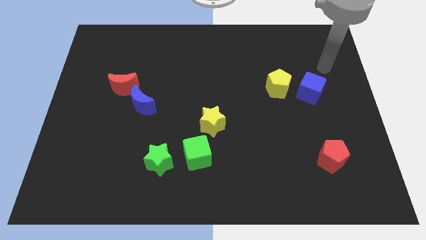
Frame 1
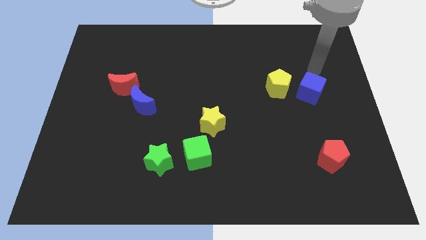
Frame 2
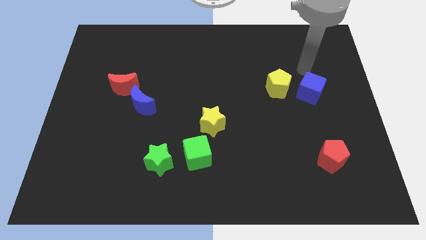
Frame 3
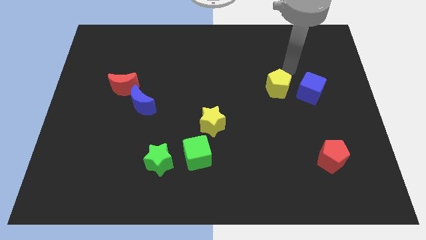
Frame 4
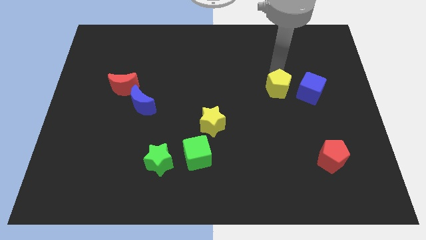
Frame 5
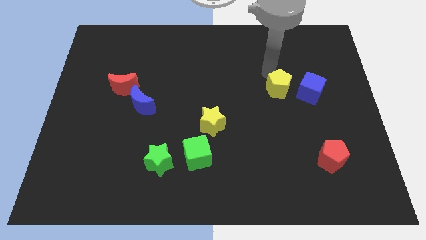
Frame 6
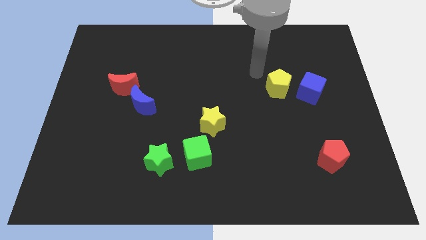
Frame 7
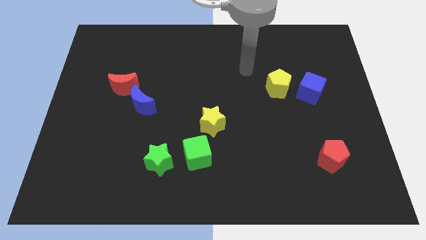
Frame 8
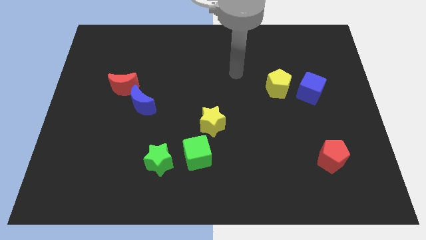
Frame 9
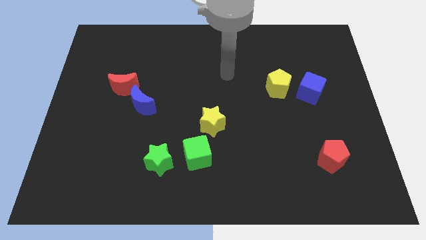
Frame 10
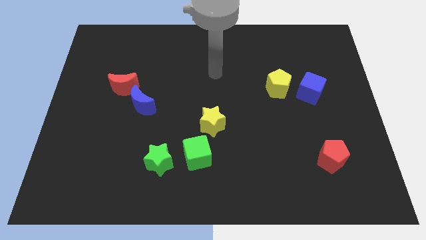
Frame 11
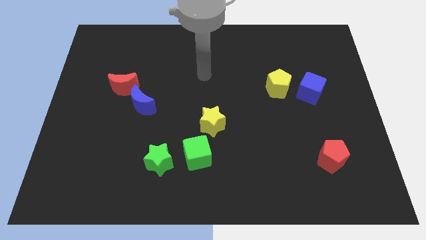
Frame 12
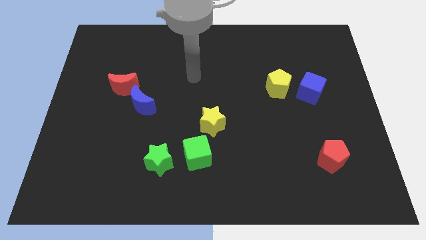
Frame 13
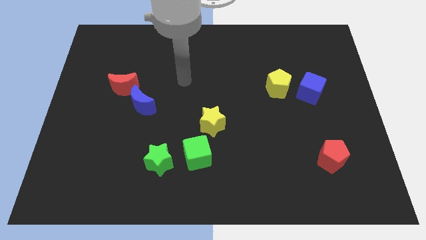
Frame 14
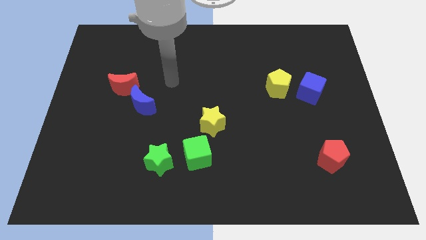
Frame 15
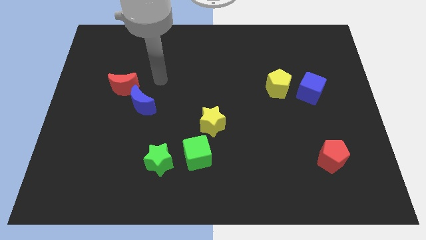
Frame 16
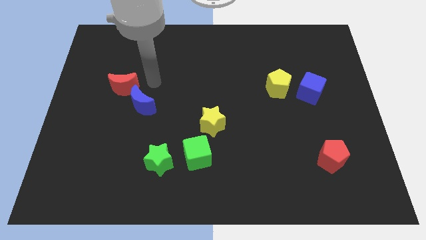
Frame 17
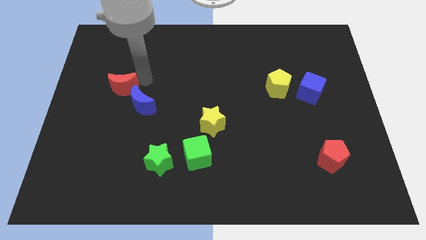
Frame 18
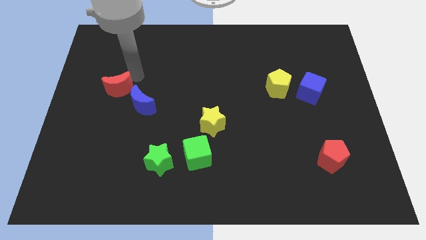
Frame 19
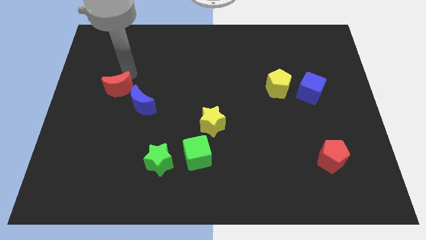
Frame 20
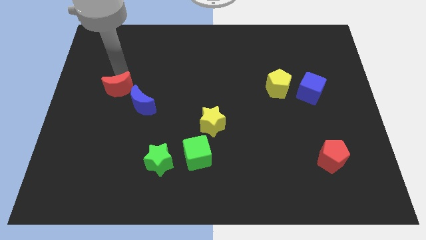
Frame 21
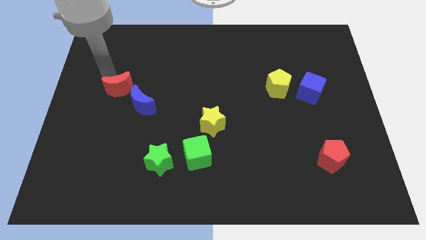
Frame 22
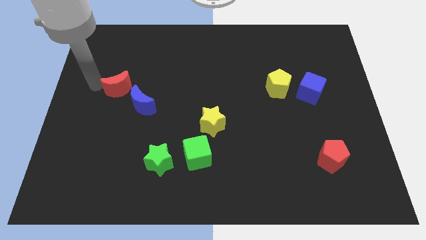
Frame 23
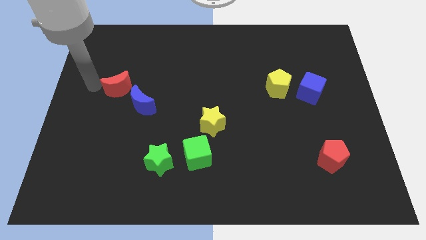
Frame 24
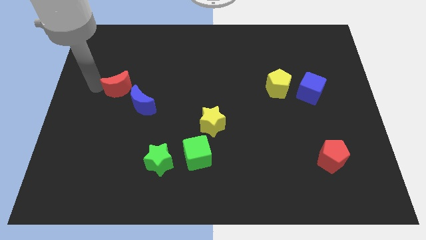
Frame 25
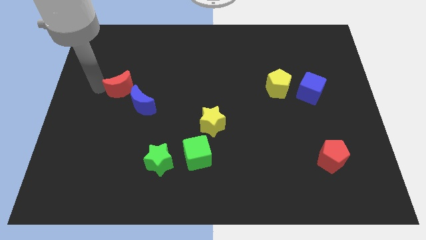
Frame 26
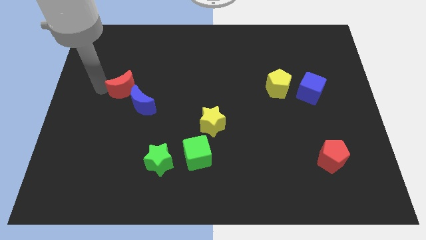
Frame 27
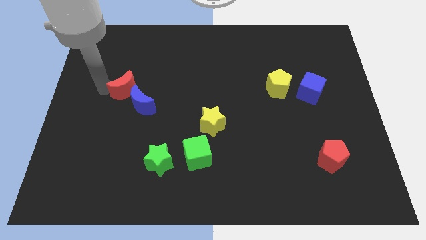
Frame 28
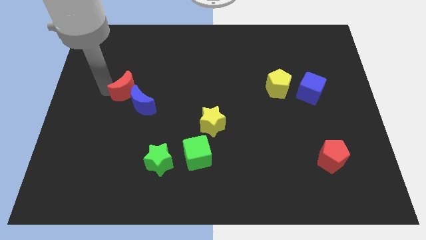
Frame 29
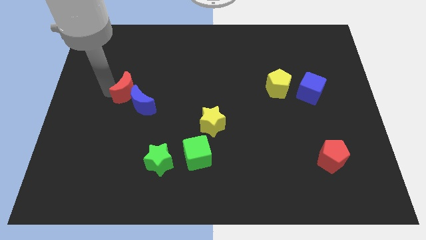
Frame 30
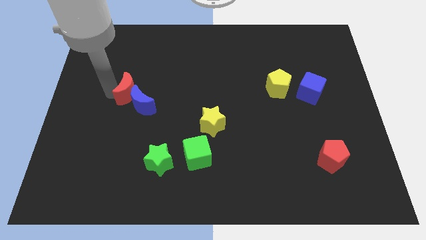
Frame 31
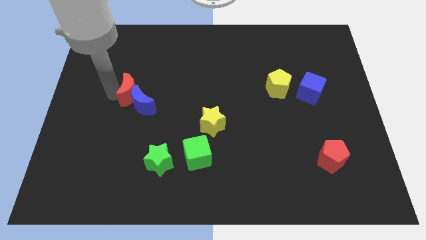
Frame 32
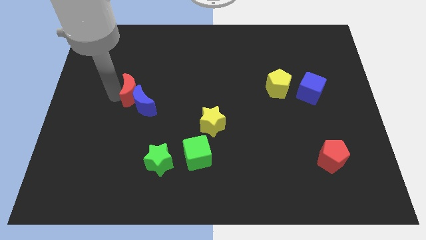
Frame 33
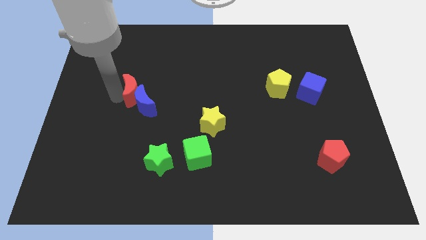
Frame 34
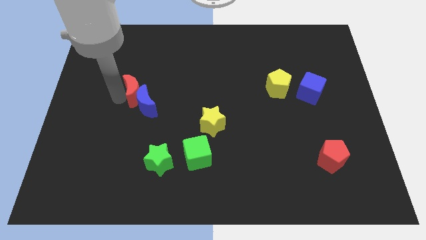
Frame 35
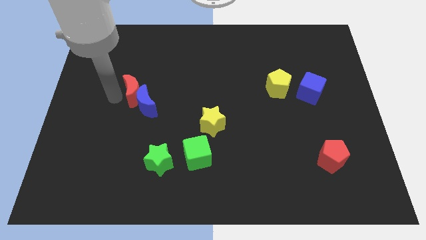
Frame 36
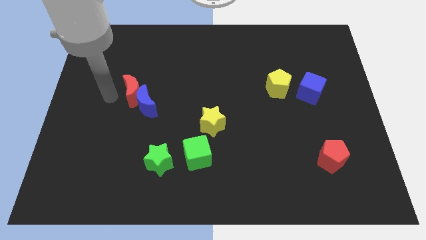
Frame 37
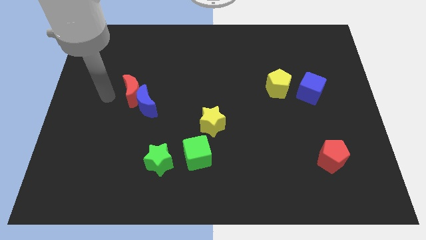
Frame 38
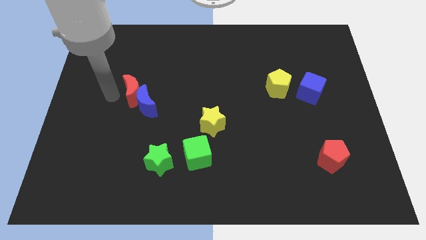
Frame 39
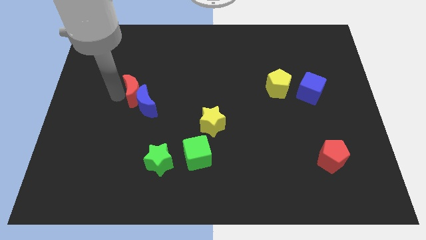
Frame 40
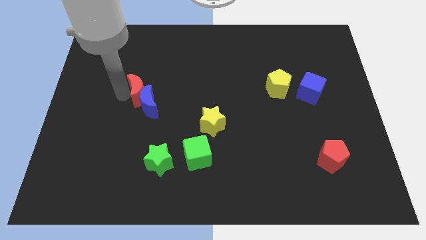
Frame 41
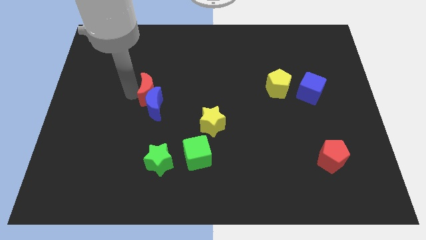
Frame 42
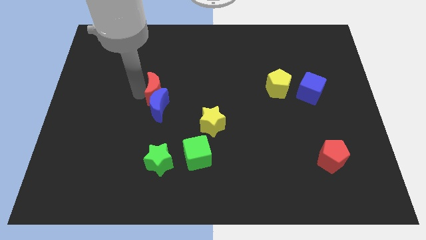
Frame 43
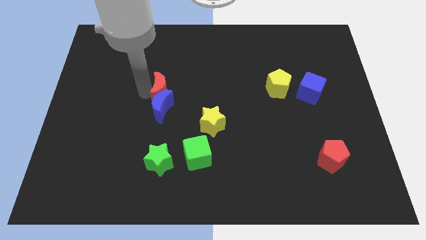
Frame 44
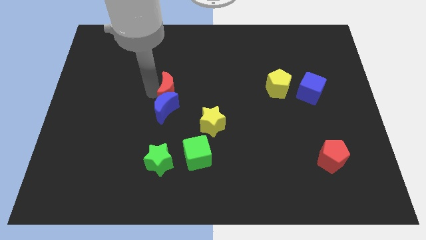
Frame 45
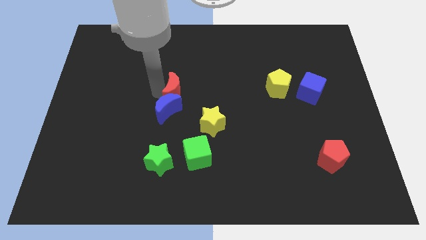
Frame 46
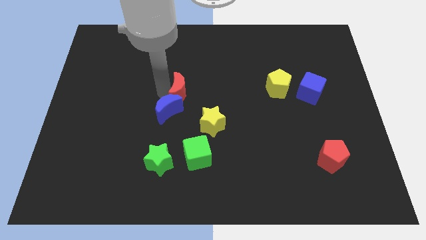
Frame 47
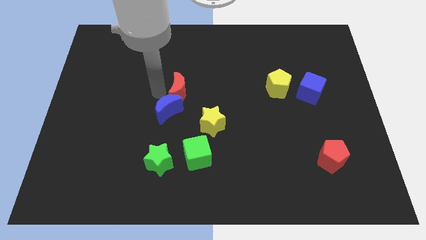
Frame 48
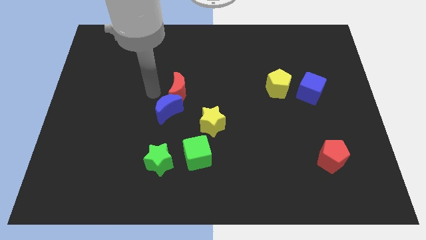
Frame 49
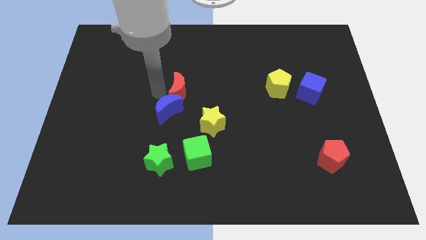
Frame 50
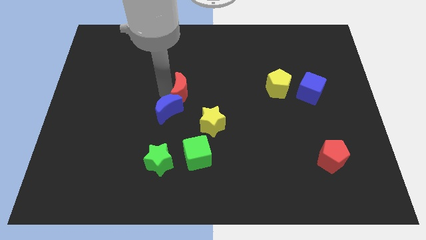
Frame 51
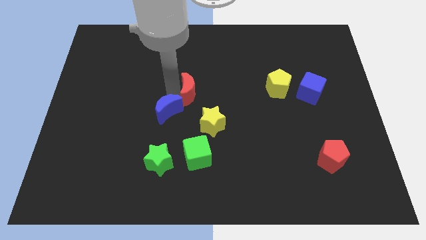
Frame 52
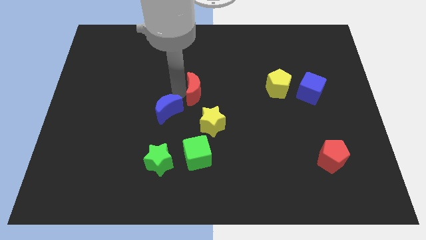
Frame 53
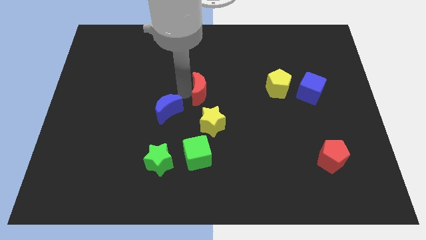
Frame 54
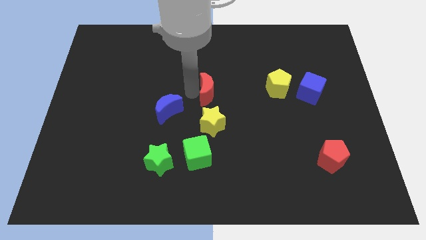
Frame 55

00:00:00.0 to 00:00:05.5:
move the red moon right

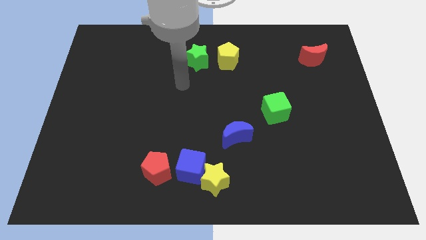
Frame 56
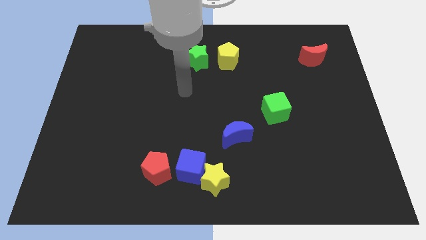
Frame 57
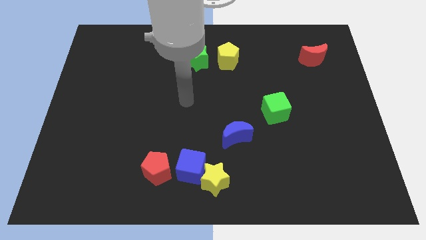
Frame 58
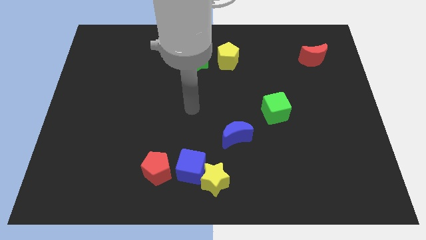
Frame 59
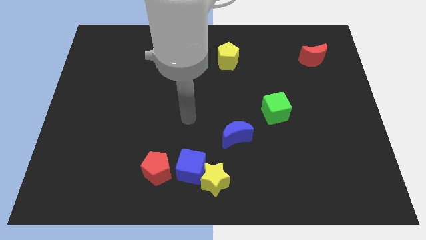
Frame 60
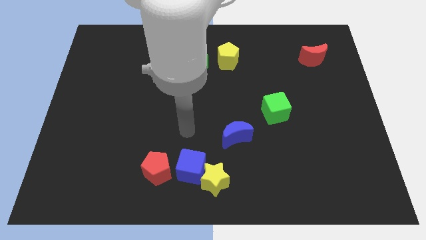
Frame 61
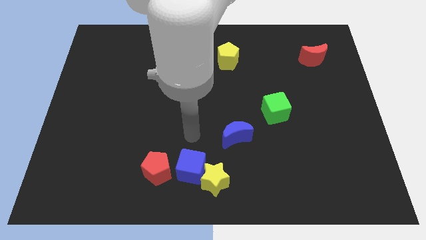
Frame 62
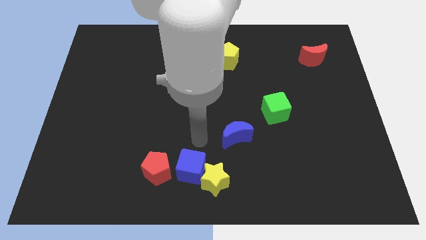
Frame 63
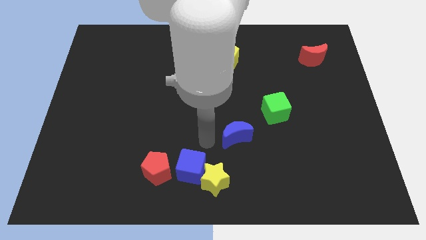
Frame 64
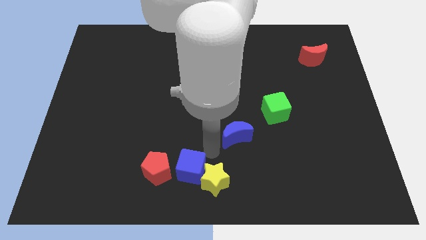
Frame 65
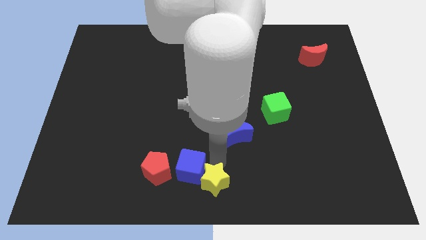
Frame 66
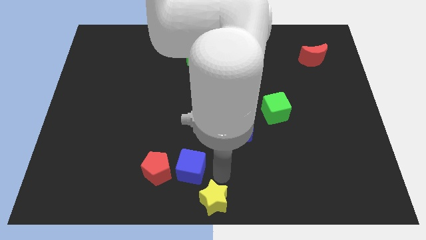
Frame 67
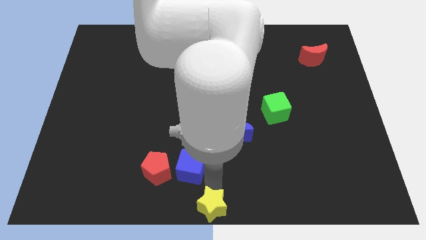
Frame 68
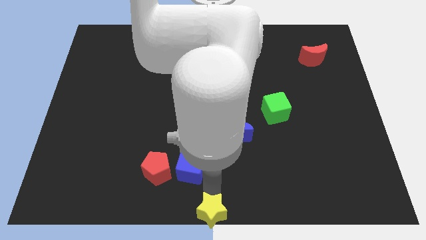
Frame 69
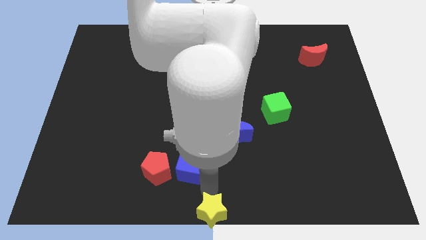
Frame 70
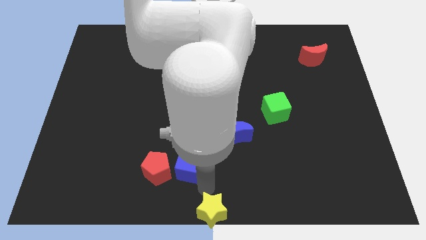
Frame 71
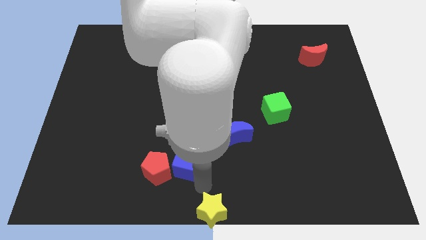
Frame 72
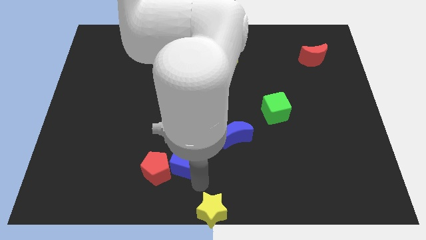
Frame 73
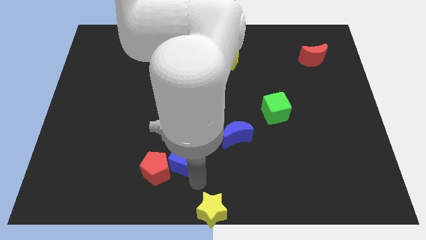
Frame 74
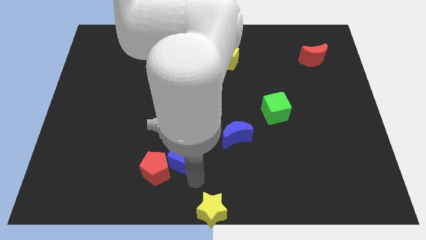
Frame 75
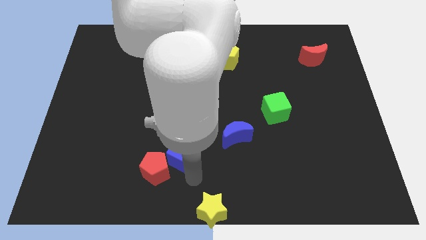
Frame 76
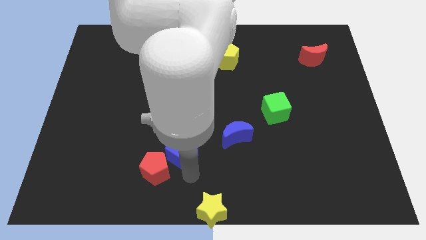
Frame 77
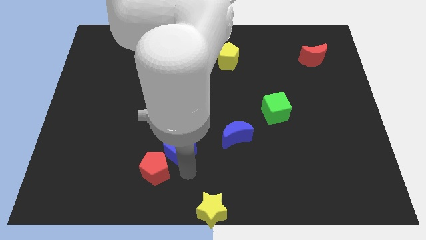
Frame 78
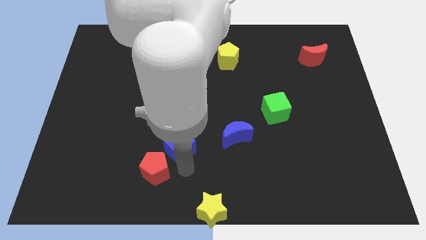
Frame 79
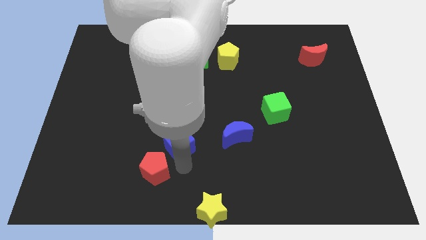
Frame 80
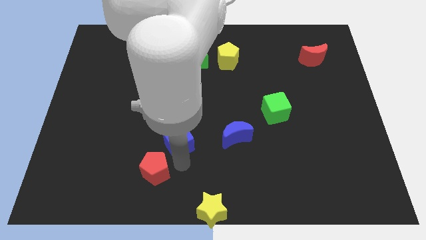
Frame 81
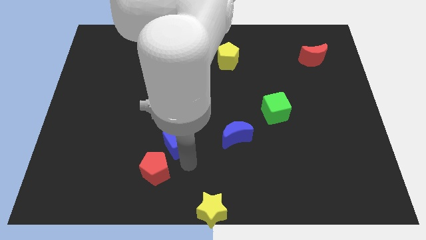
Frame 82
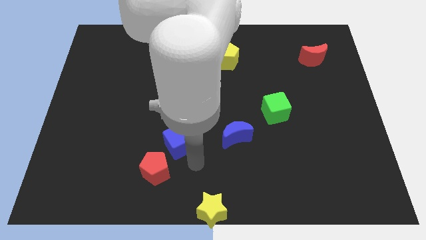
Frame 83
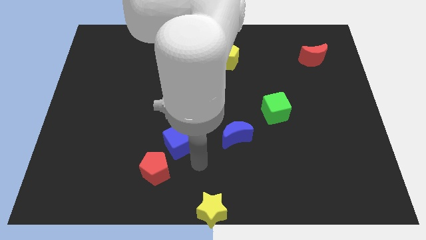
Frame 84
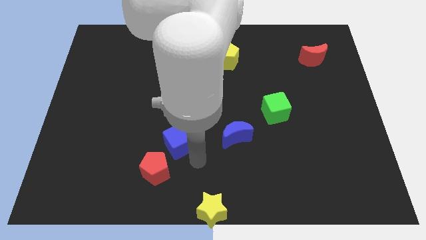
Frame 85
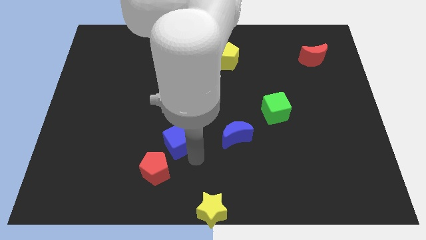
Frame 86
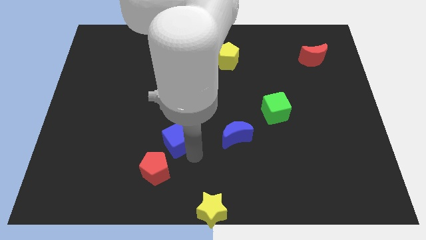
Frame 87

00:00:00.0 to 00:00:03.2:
slide the blue cube a little bit upwards and then to the left
